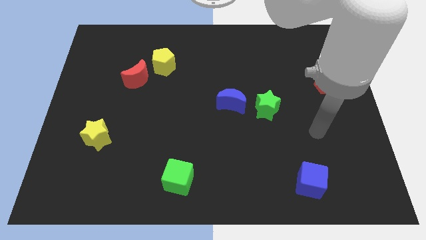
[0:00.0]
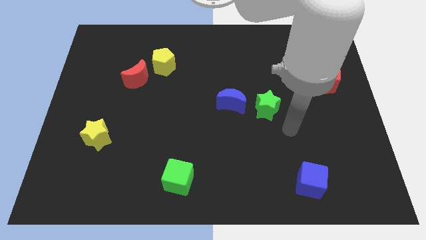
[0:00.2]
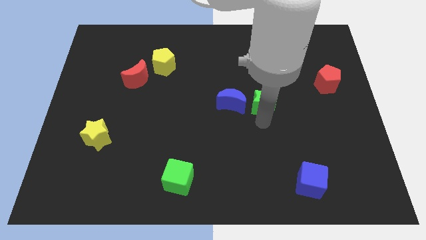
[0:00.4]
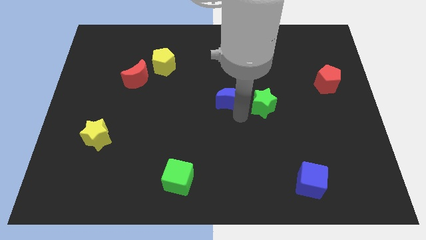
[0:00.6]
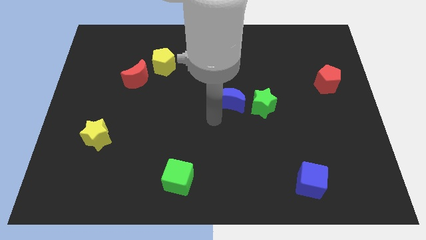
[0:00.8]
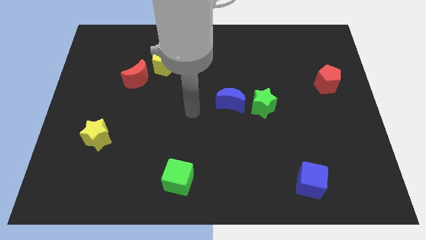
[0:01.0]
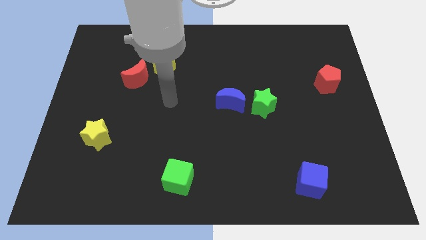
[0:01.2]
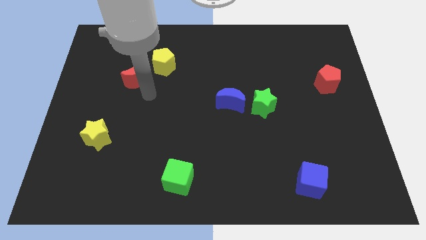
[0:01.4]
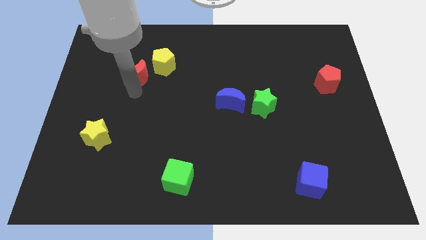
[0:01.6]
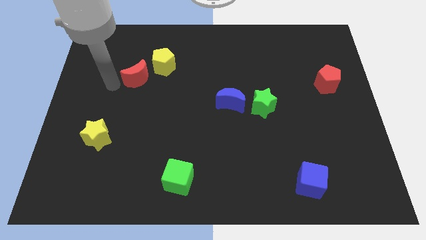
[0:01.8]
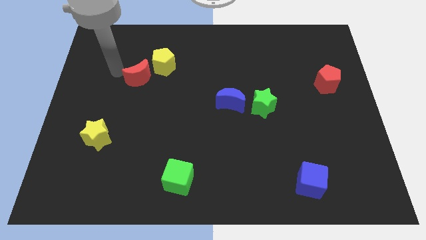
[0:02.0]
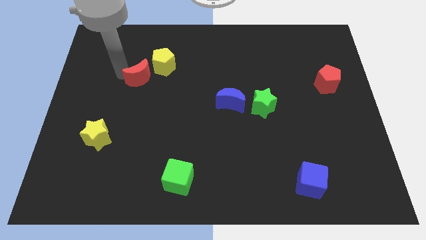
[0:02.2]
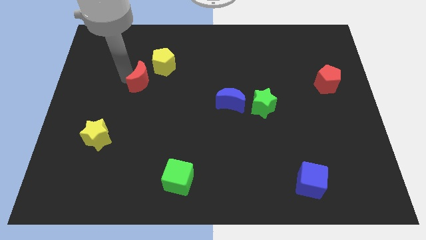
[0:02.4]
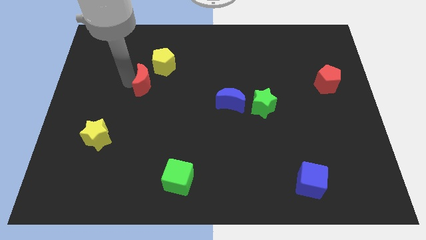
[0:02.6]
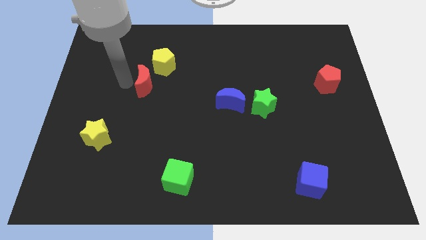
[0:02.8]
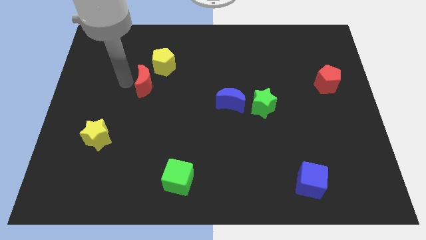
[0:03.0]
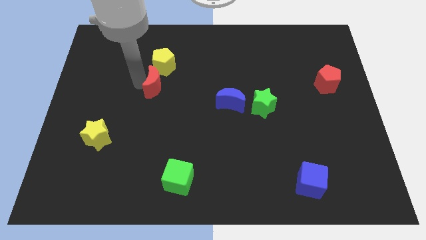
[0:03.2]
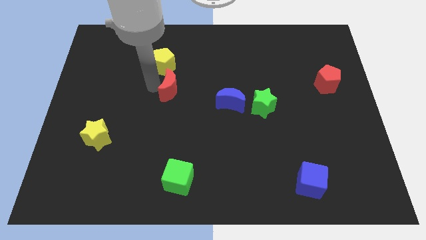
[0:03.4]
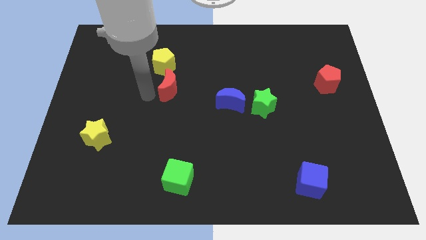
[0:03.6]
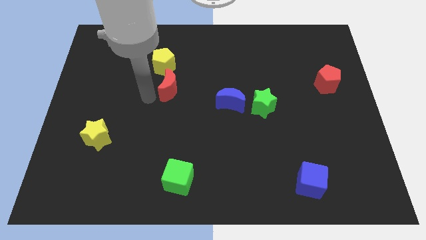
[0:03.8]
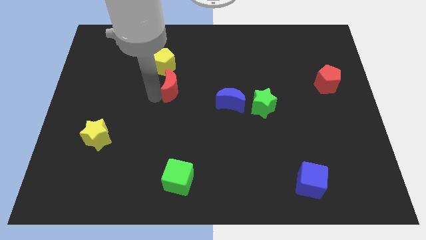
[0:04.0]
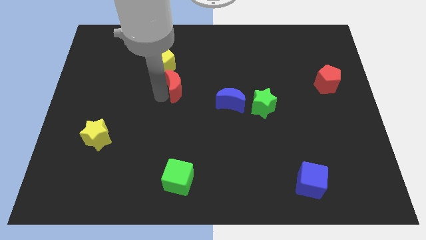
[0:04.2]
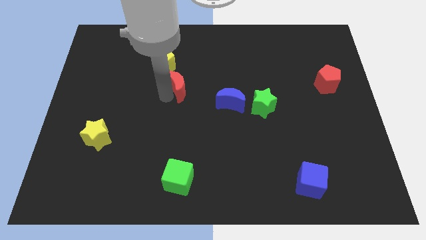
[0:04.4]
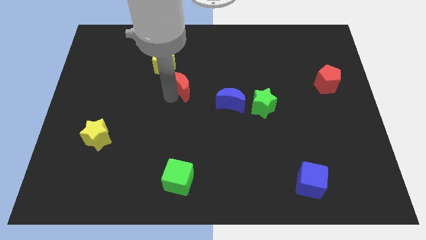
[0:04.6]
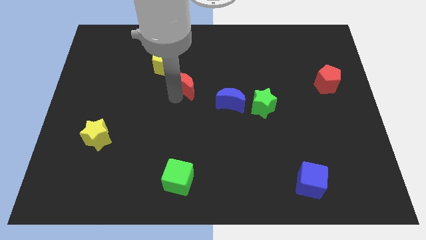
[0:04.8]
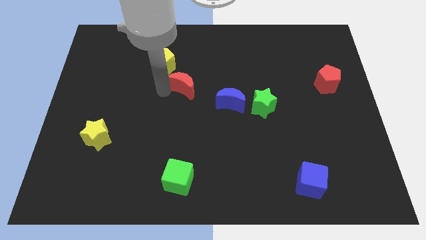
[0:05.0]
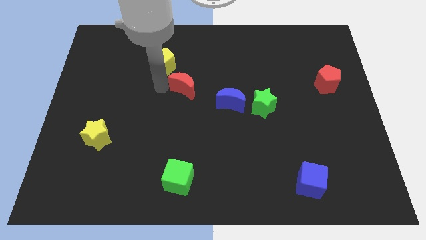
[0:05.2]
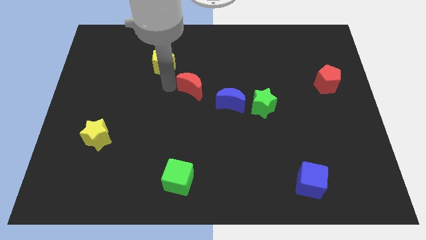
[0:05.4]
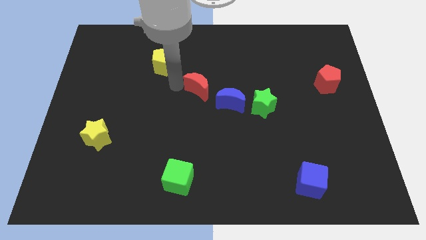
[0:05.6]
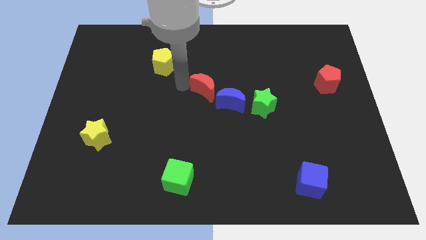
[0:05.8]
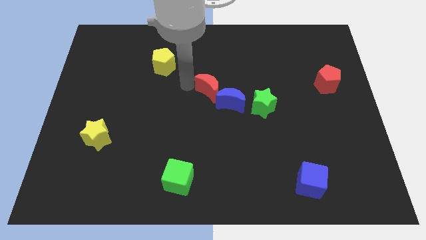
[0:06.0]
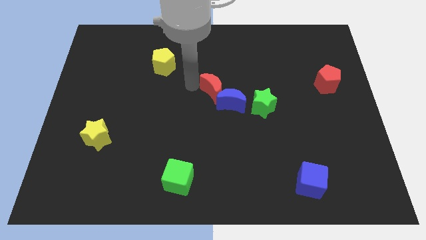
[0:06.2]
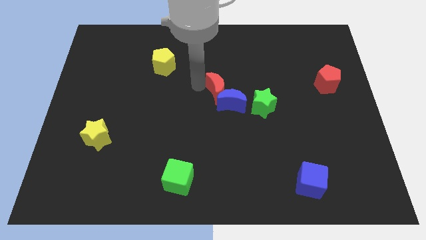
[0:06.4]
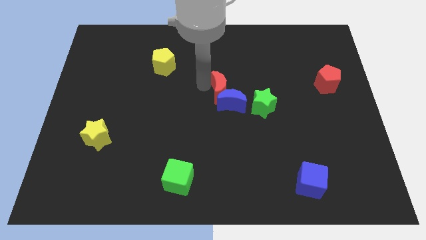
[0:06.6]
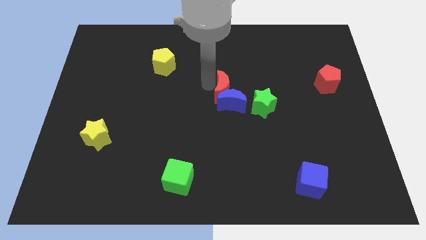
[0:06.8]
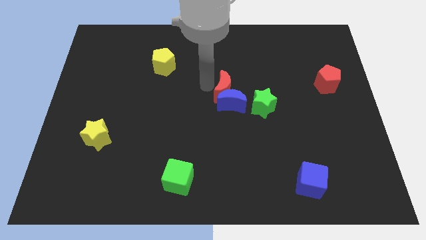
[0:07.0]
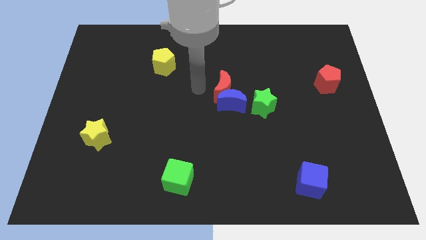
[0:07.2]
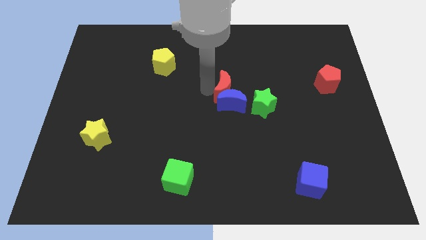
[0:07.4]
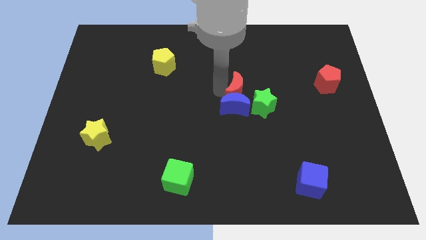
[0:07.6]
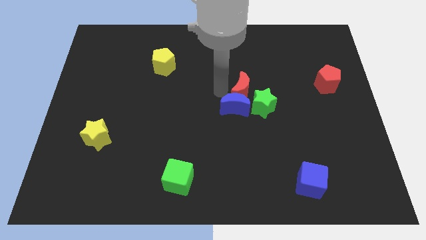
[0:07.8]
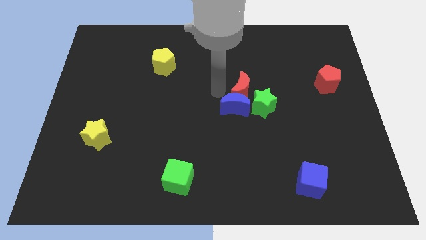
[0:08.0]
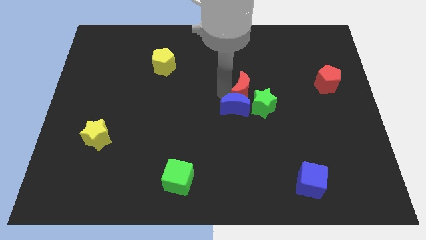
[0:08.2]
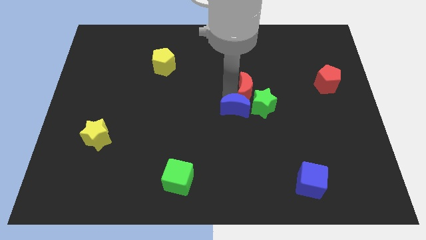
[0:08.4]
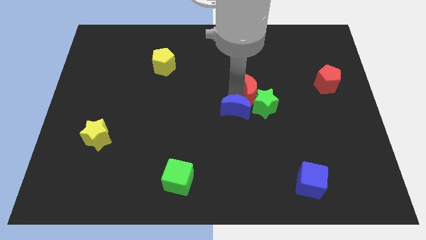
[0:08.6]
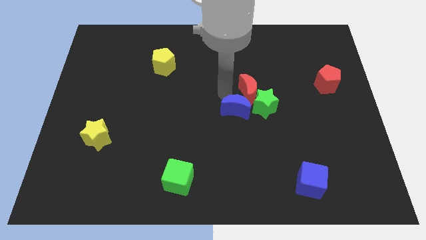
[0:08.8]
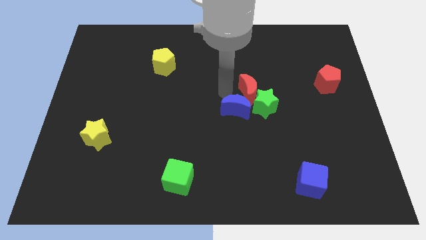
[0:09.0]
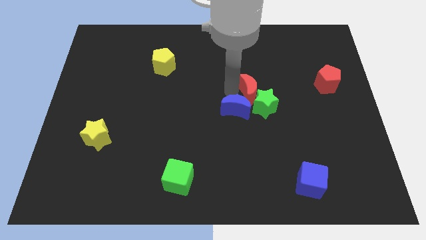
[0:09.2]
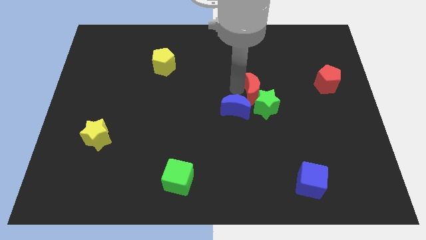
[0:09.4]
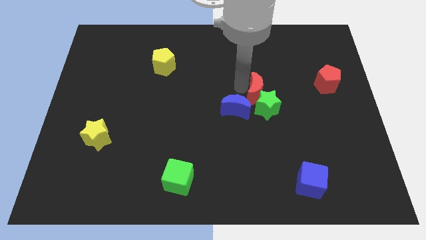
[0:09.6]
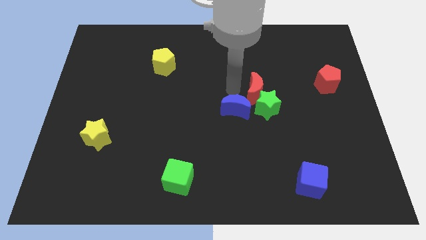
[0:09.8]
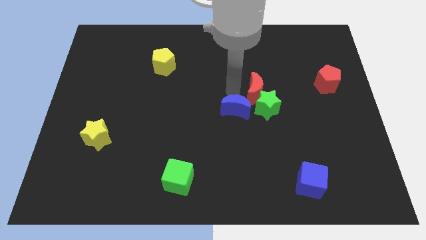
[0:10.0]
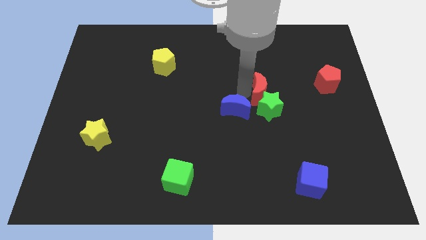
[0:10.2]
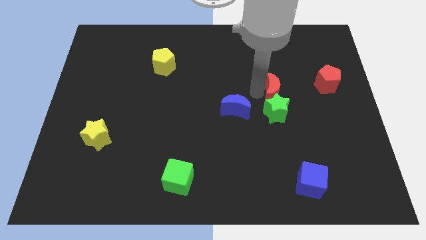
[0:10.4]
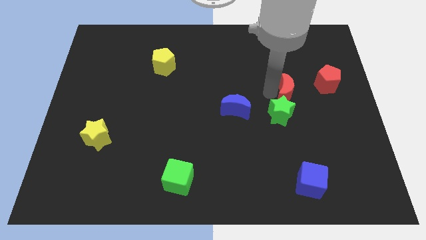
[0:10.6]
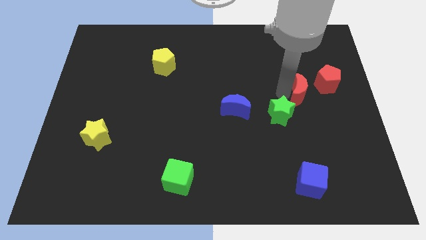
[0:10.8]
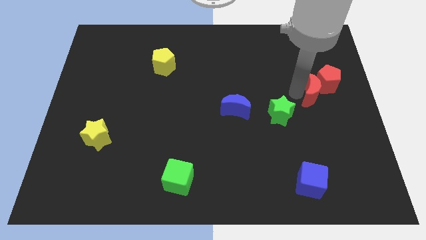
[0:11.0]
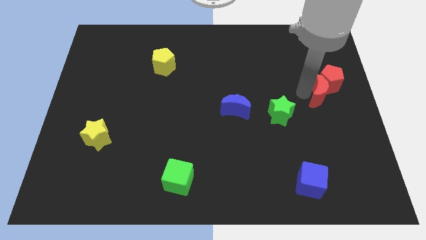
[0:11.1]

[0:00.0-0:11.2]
put the red moon to the center right

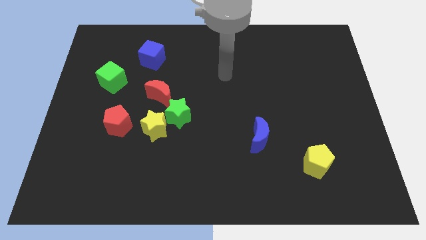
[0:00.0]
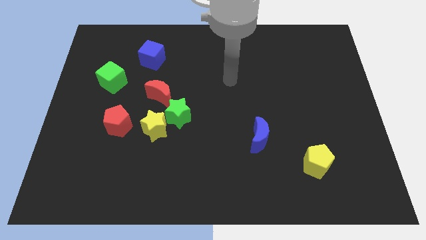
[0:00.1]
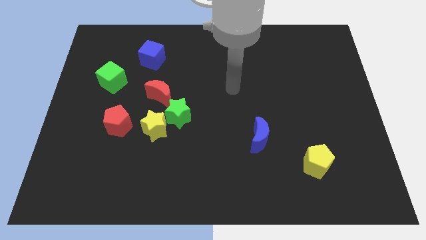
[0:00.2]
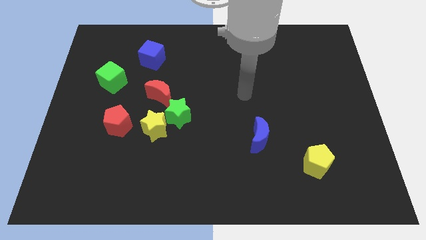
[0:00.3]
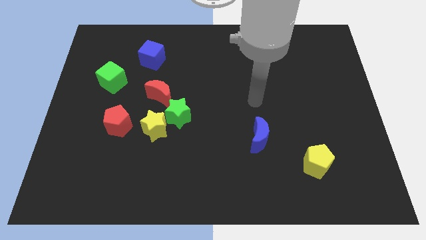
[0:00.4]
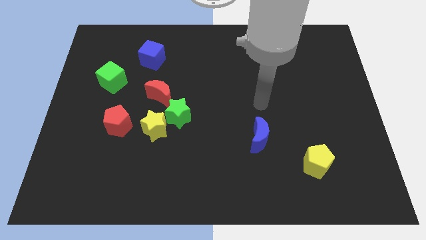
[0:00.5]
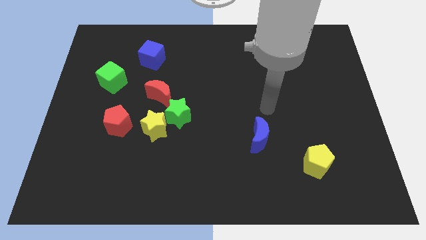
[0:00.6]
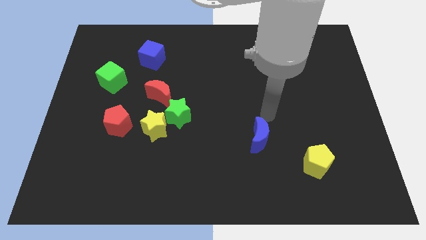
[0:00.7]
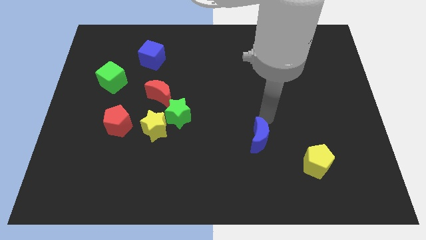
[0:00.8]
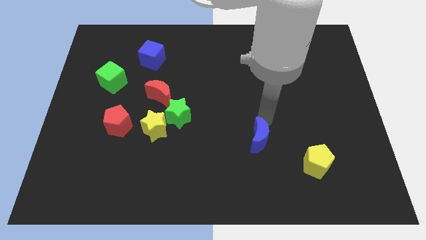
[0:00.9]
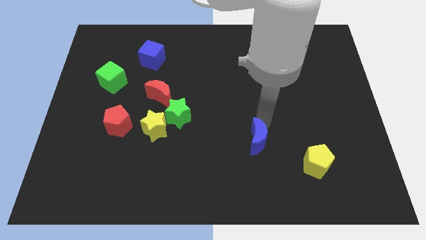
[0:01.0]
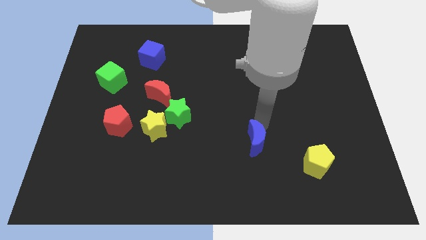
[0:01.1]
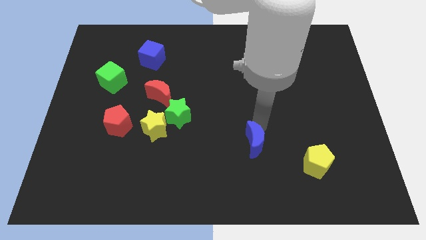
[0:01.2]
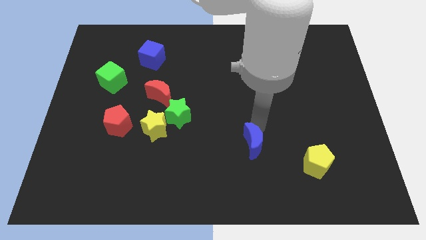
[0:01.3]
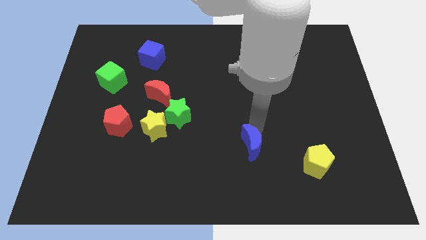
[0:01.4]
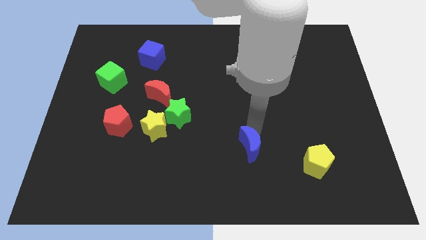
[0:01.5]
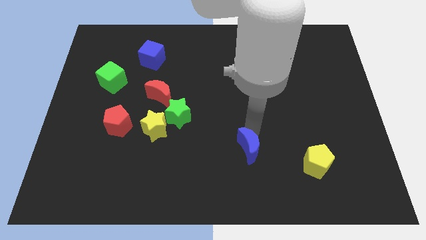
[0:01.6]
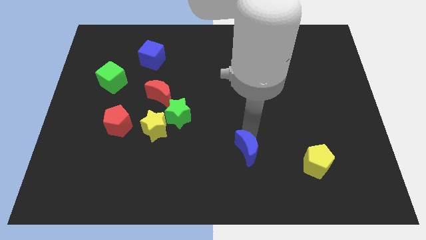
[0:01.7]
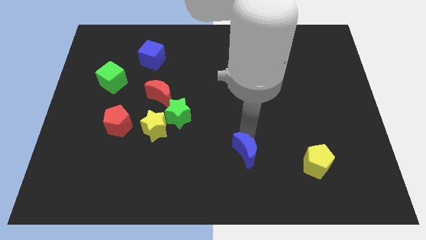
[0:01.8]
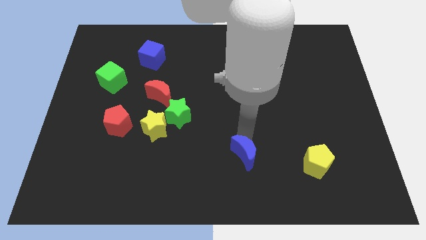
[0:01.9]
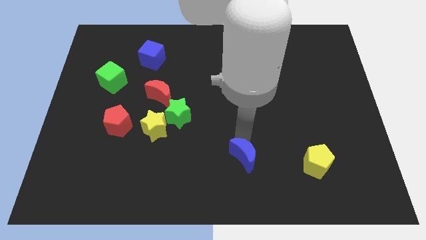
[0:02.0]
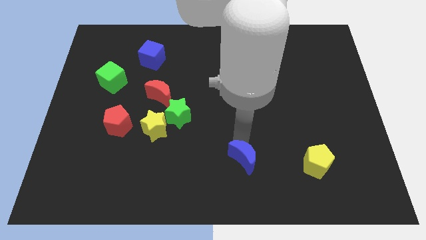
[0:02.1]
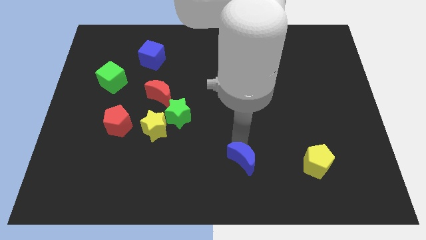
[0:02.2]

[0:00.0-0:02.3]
move the blue moon to the bottom side
